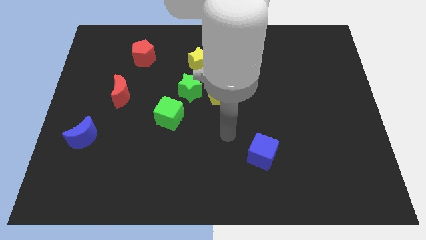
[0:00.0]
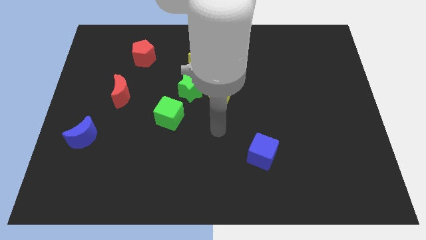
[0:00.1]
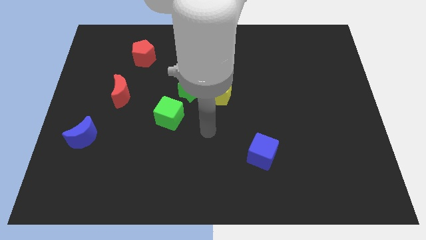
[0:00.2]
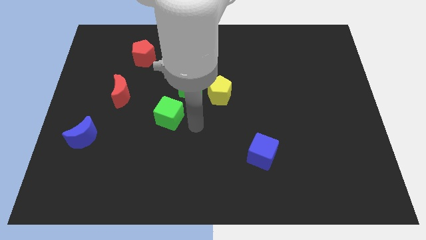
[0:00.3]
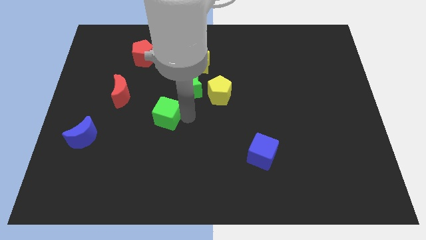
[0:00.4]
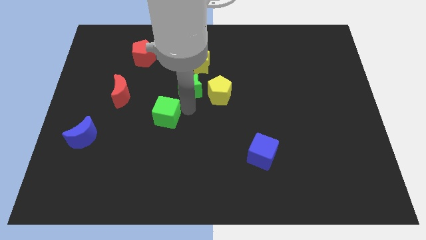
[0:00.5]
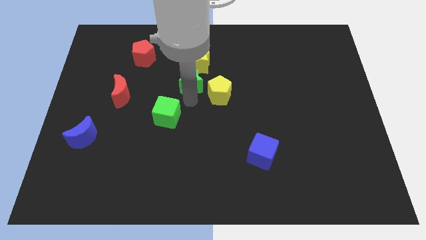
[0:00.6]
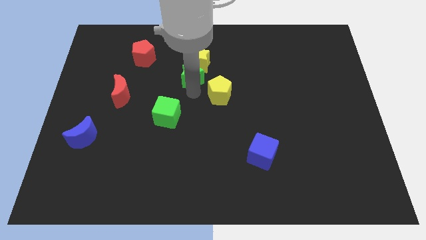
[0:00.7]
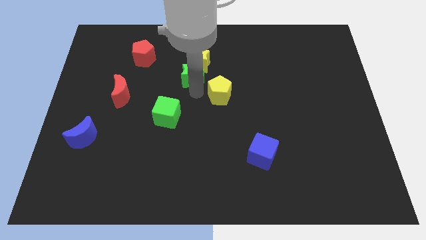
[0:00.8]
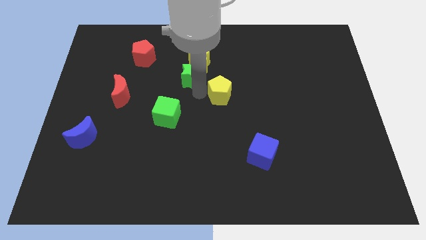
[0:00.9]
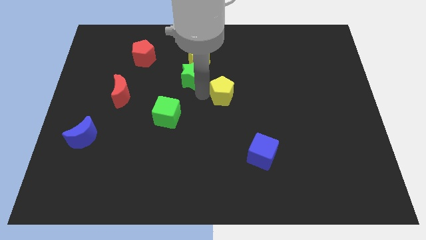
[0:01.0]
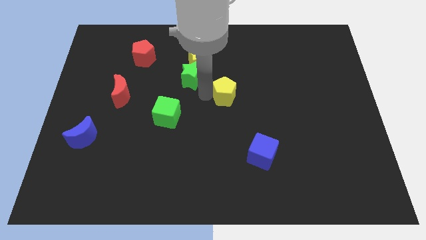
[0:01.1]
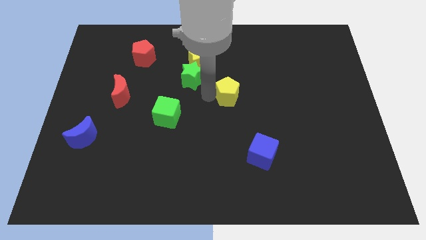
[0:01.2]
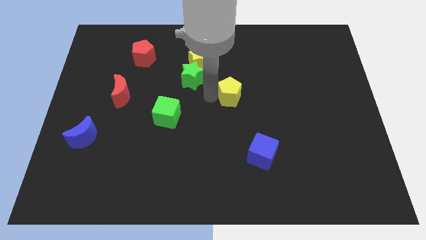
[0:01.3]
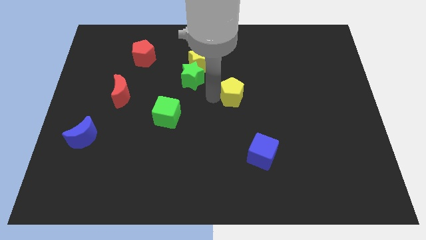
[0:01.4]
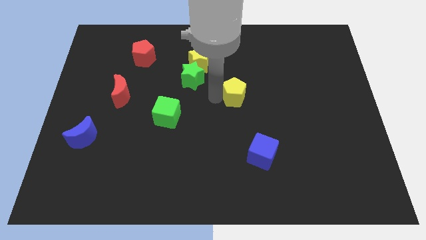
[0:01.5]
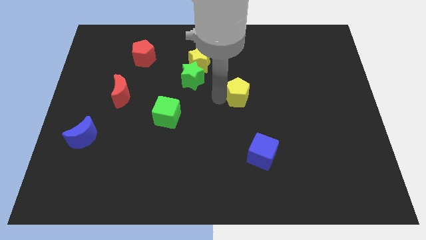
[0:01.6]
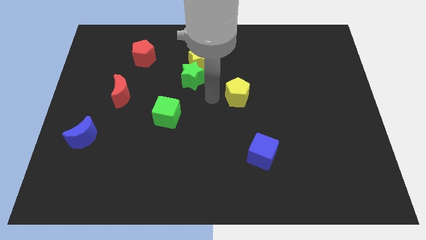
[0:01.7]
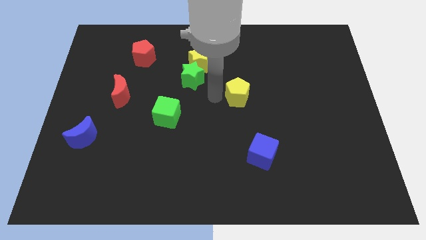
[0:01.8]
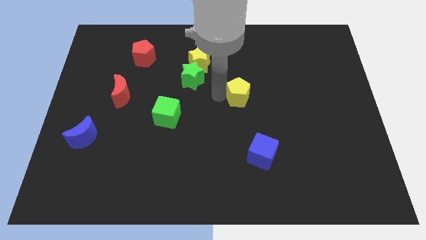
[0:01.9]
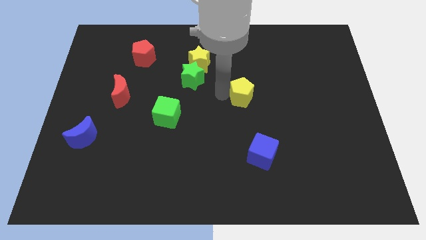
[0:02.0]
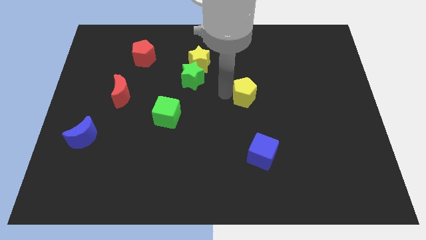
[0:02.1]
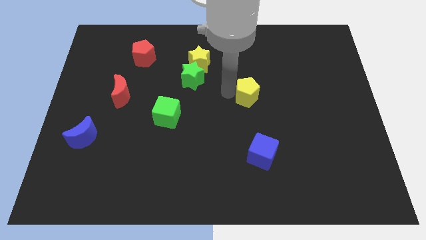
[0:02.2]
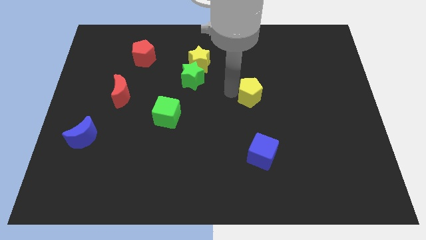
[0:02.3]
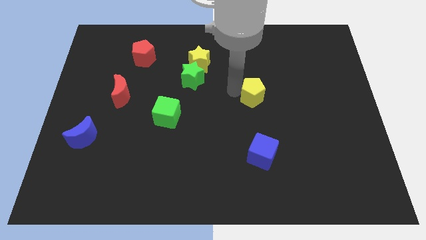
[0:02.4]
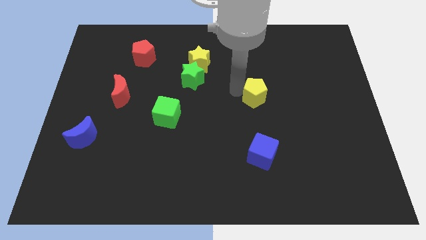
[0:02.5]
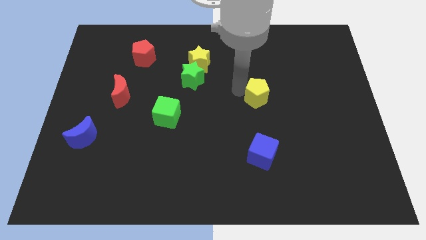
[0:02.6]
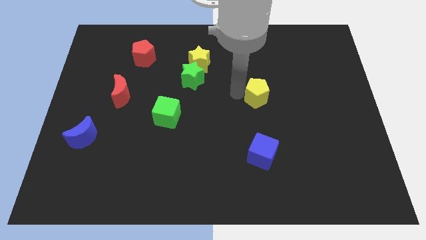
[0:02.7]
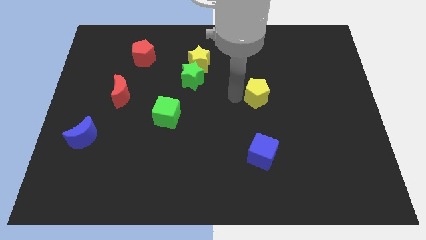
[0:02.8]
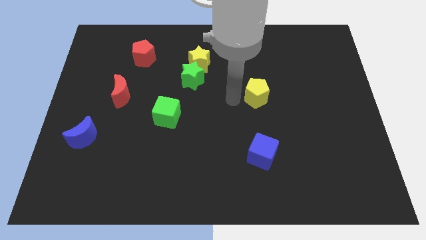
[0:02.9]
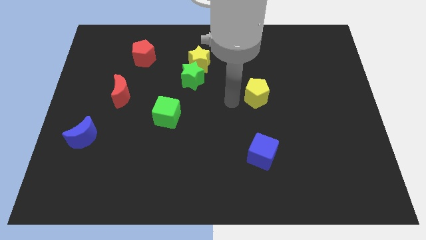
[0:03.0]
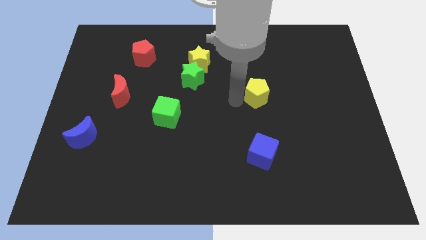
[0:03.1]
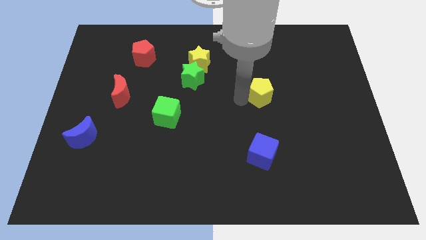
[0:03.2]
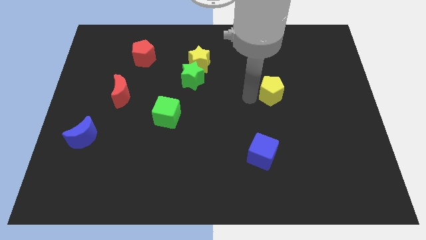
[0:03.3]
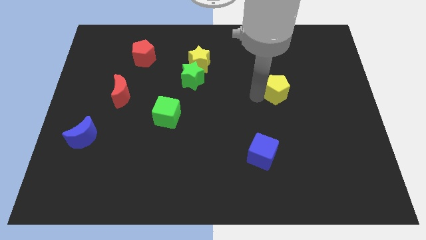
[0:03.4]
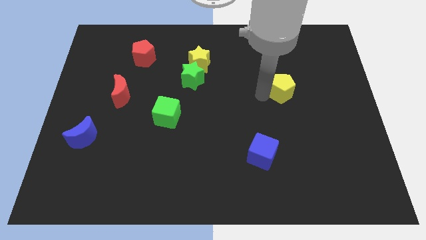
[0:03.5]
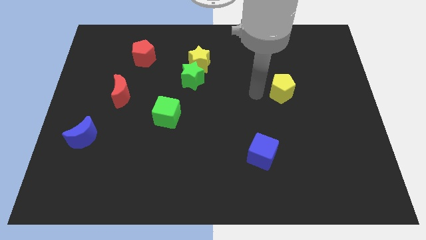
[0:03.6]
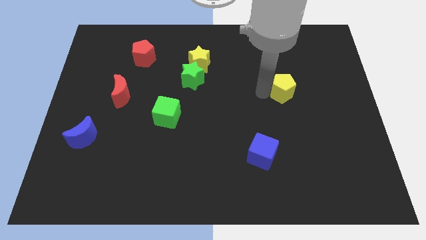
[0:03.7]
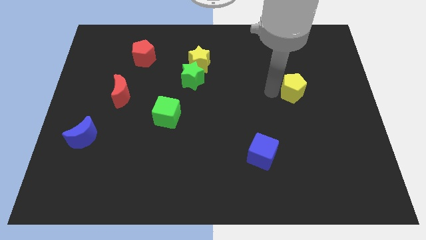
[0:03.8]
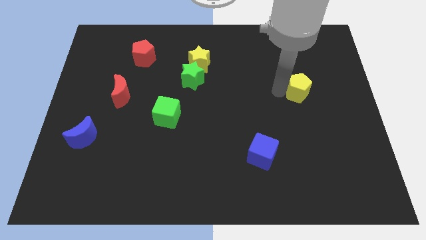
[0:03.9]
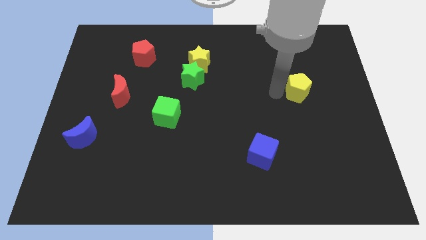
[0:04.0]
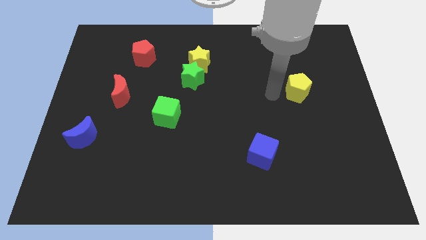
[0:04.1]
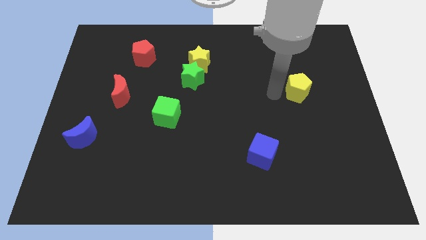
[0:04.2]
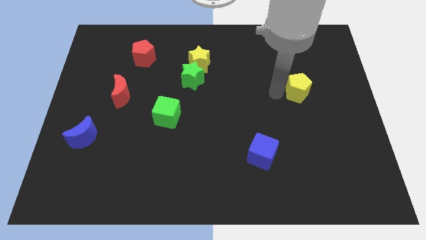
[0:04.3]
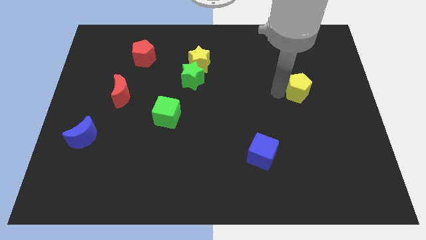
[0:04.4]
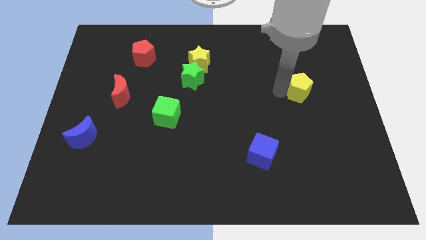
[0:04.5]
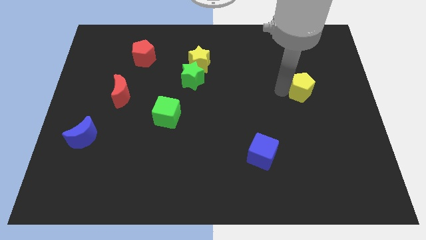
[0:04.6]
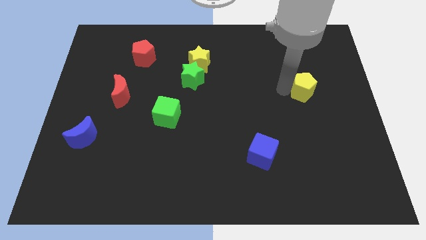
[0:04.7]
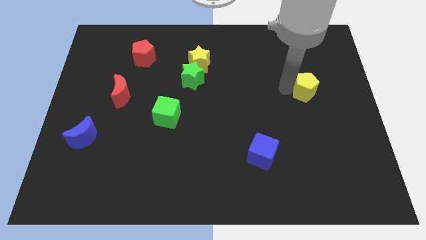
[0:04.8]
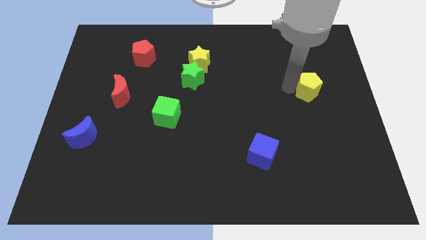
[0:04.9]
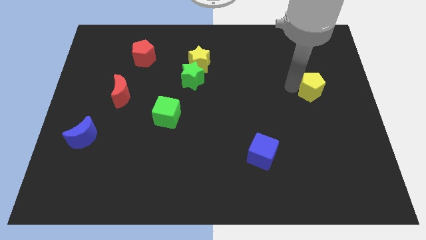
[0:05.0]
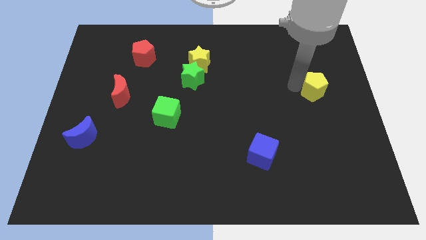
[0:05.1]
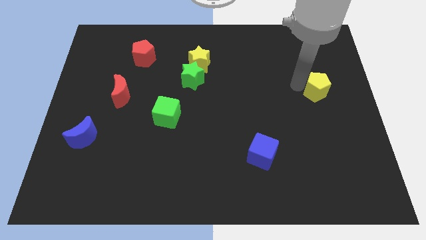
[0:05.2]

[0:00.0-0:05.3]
put the yellow pentagon to the right side of the board

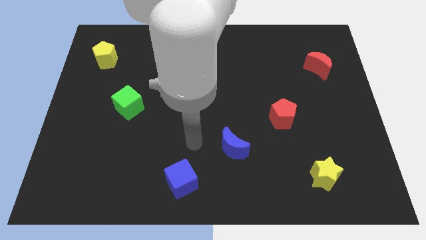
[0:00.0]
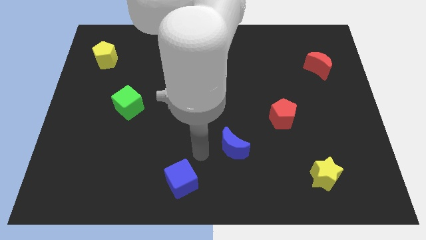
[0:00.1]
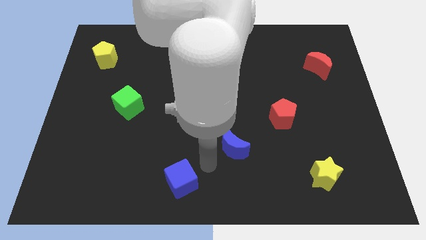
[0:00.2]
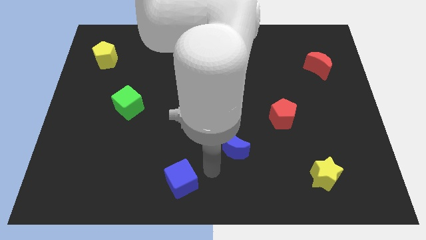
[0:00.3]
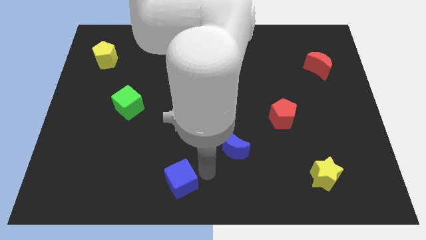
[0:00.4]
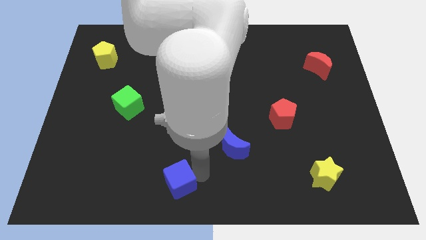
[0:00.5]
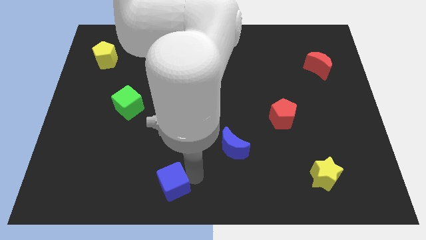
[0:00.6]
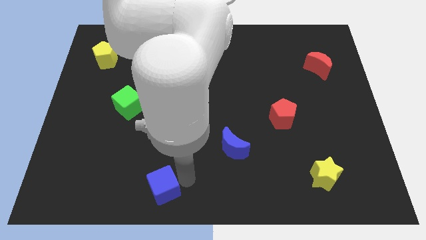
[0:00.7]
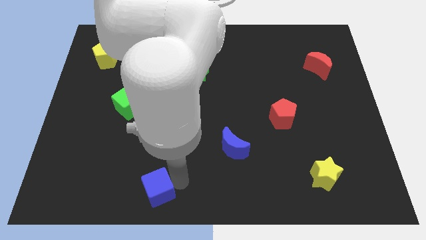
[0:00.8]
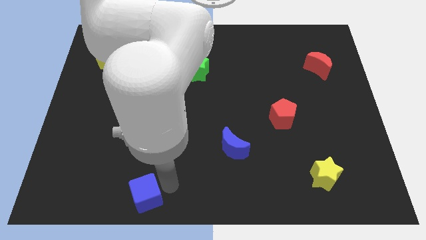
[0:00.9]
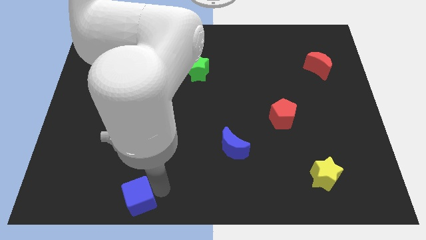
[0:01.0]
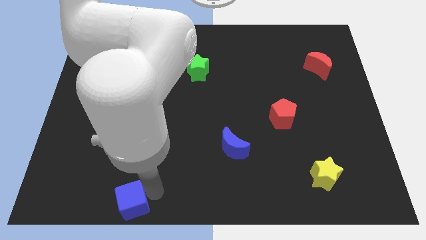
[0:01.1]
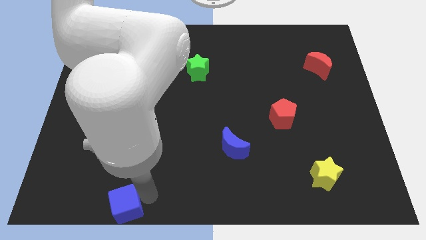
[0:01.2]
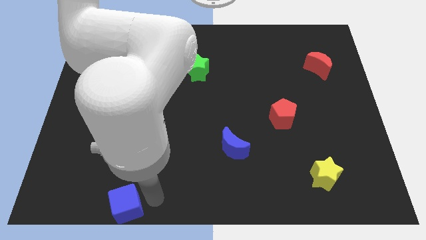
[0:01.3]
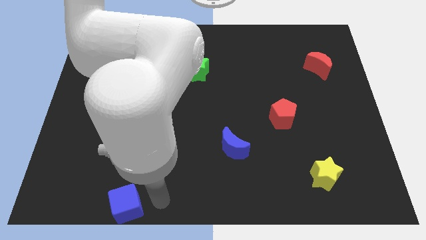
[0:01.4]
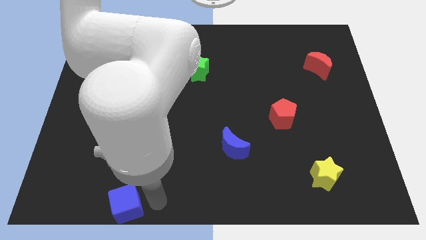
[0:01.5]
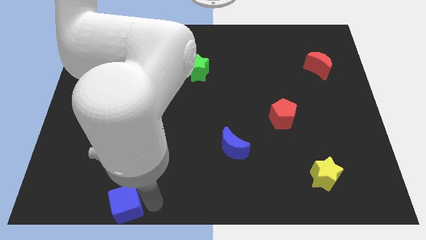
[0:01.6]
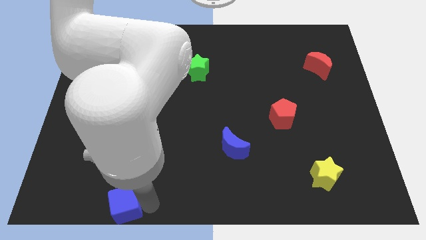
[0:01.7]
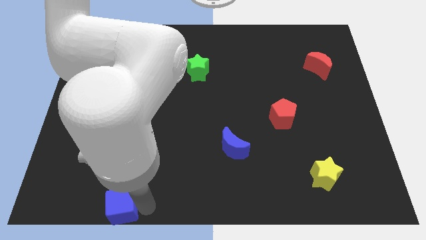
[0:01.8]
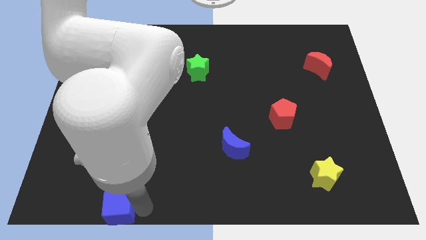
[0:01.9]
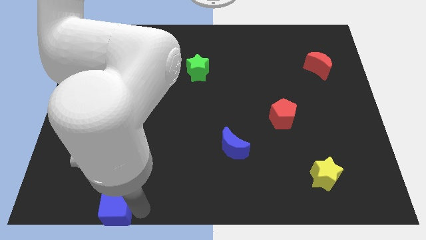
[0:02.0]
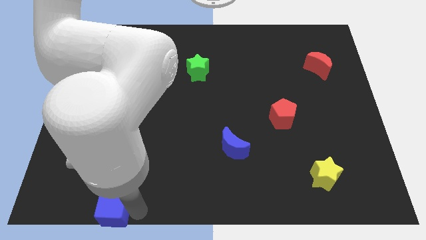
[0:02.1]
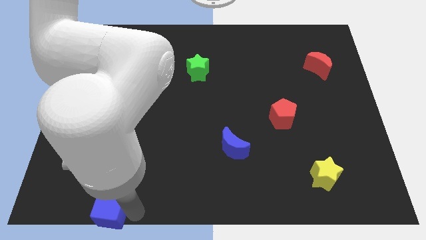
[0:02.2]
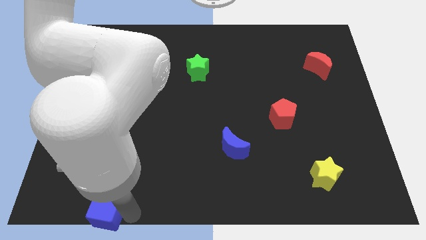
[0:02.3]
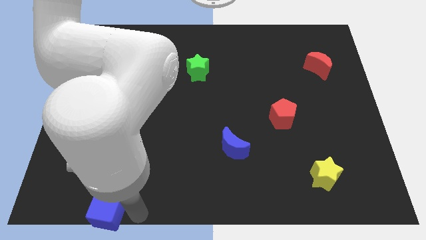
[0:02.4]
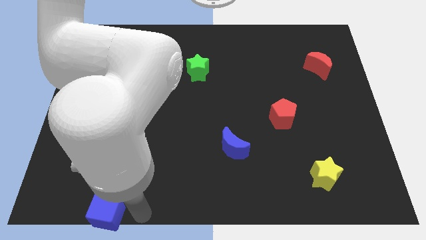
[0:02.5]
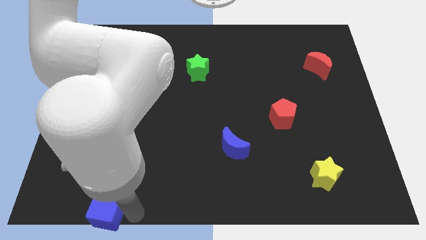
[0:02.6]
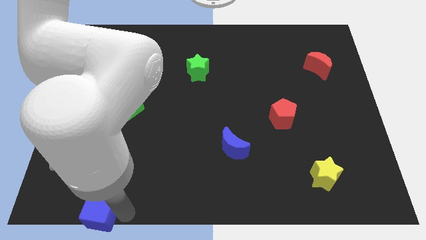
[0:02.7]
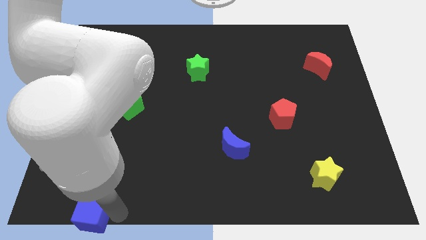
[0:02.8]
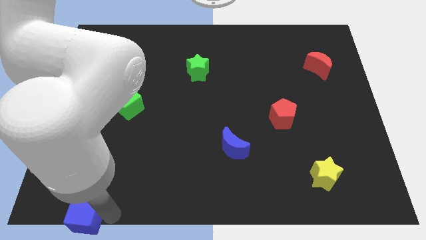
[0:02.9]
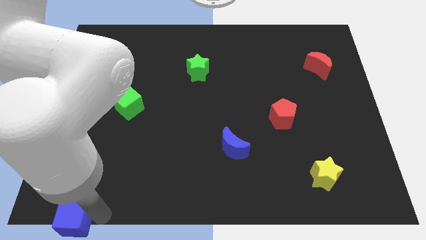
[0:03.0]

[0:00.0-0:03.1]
slide the blue cube to the bottom left of the board
